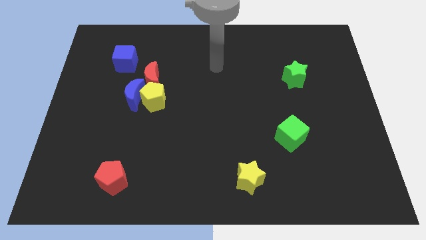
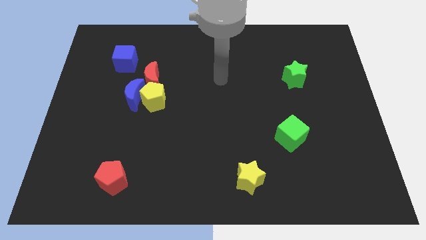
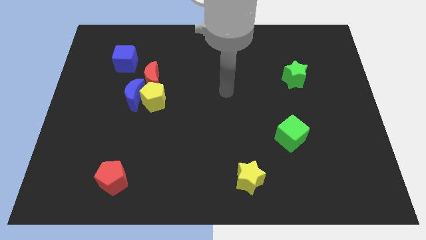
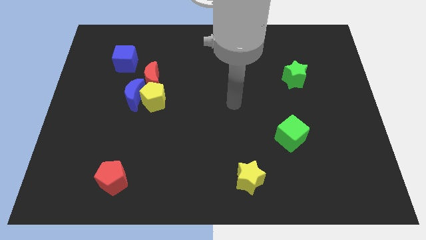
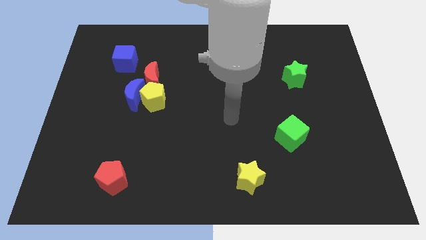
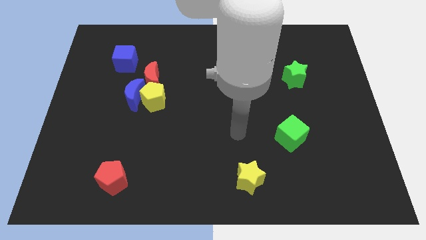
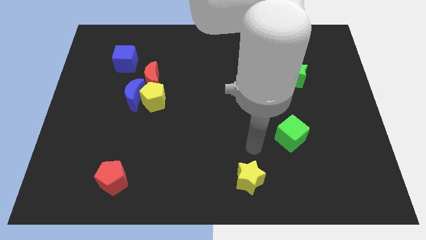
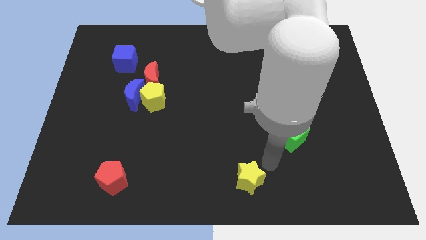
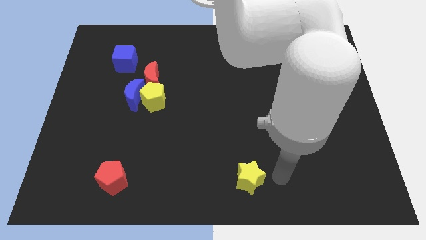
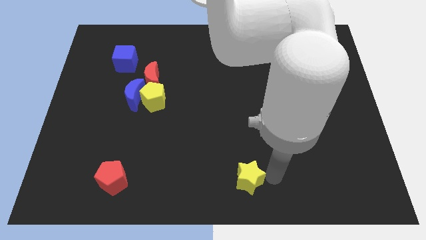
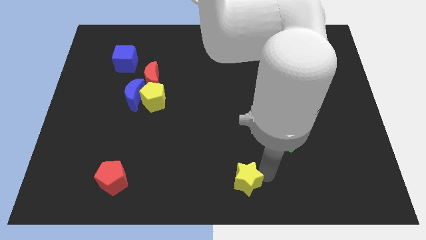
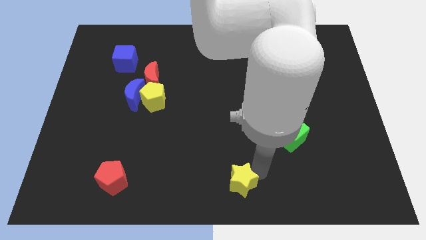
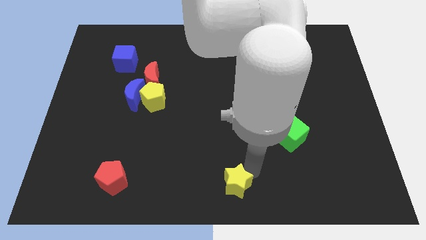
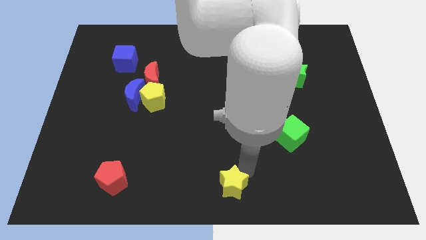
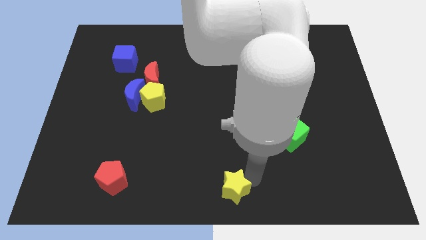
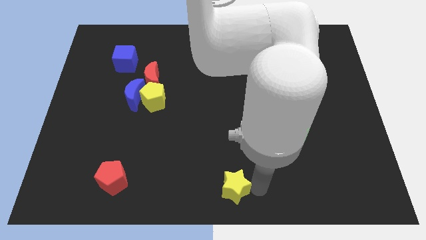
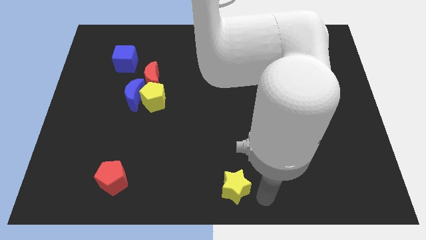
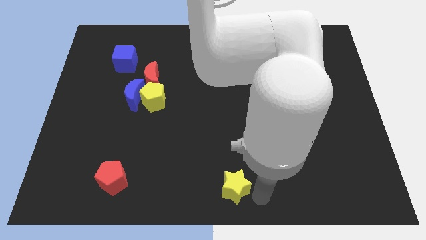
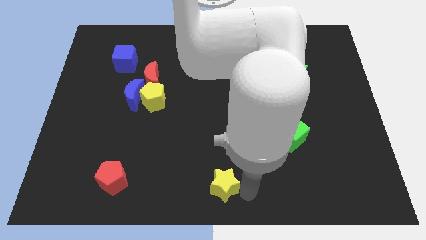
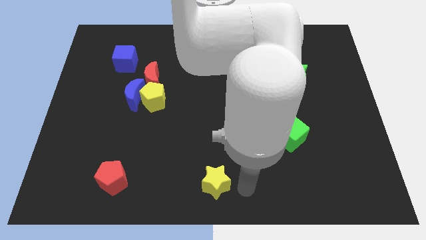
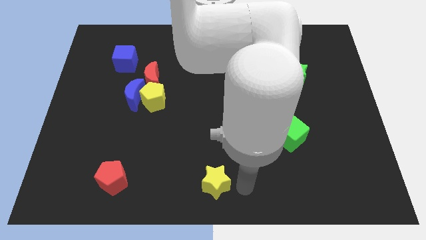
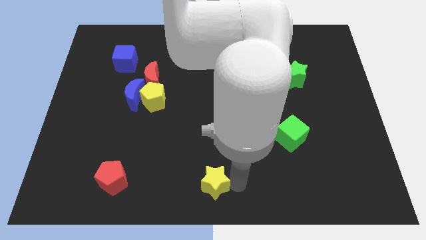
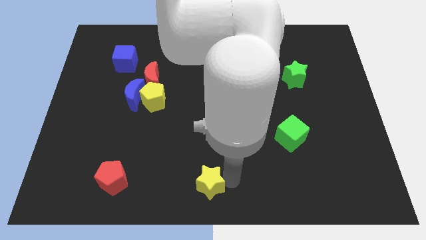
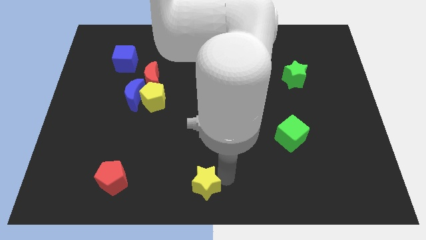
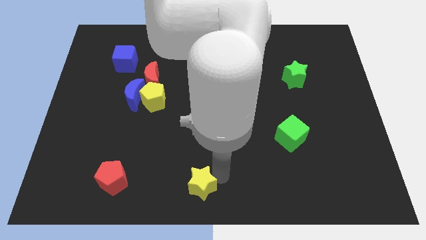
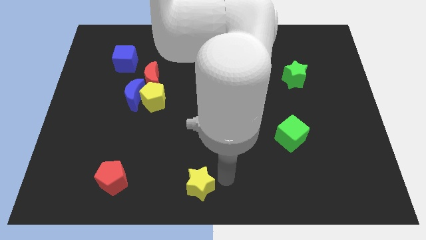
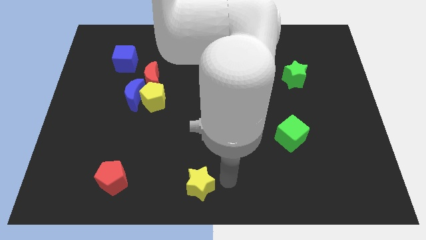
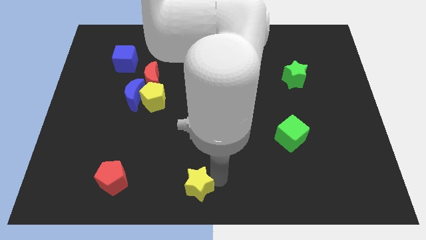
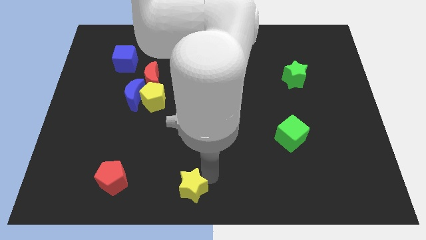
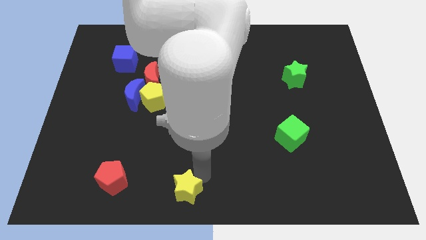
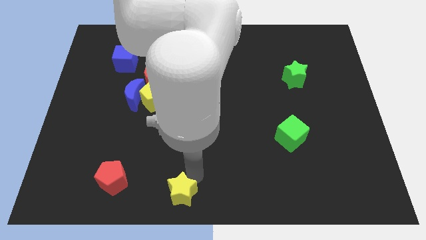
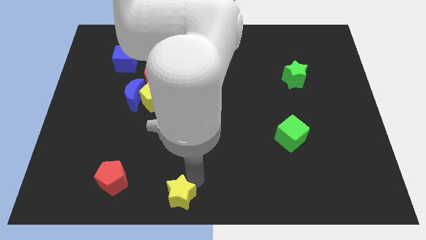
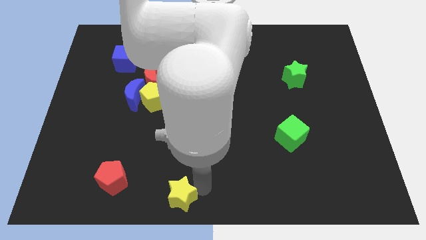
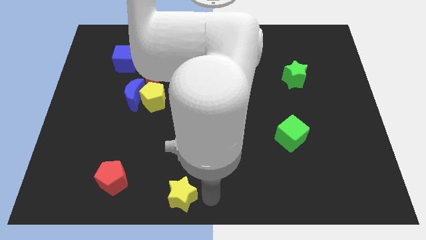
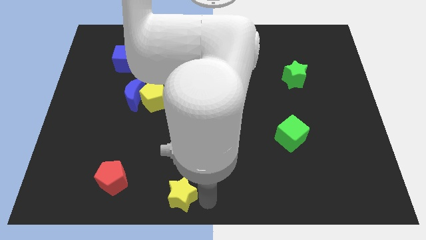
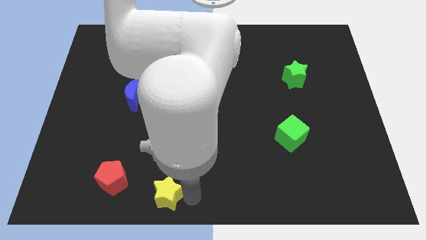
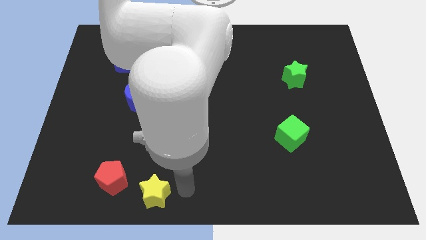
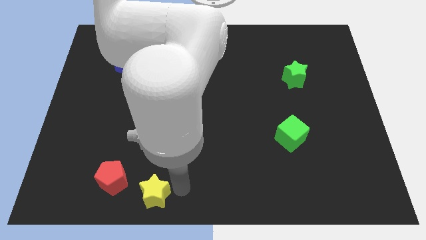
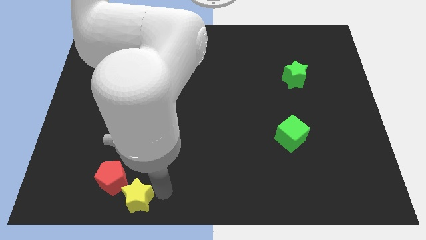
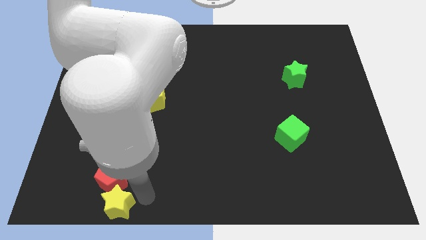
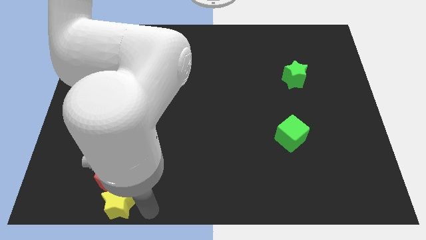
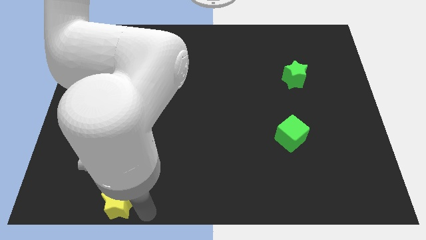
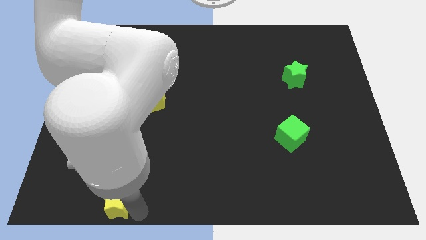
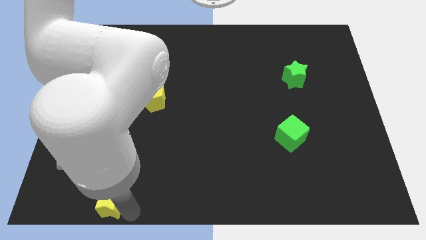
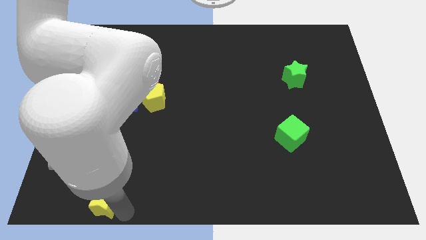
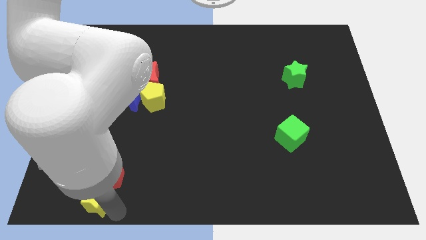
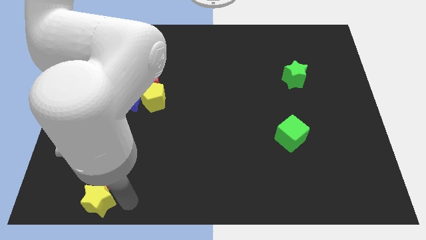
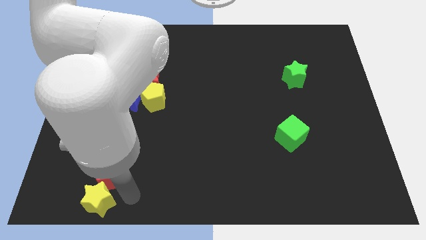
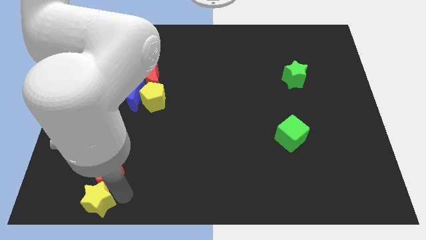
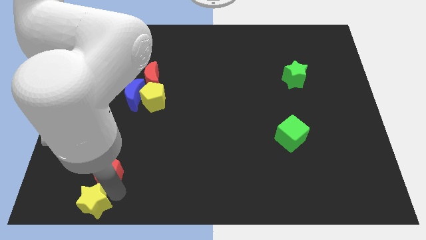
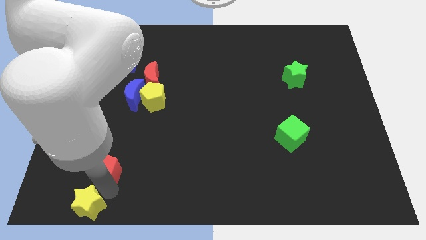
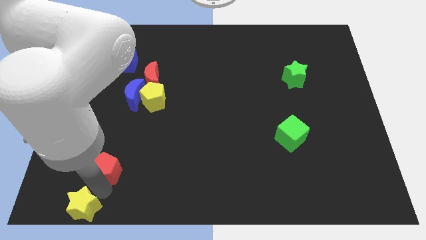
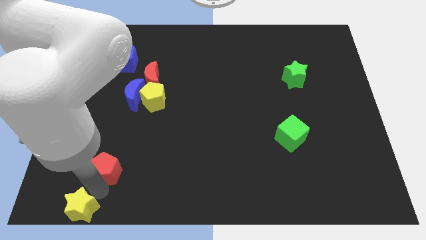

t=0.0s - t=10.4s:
slide the yellow star to the lower left corner

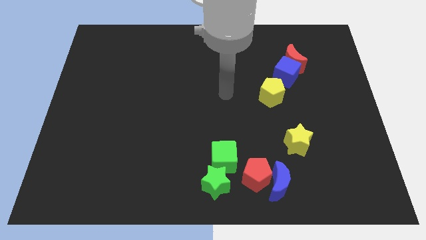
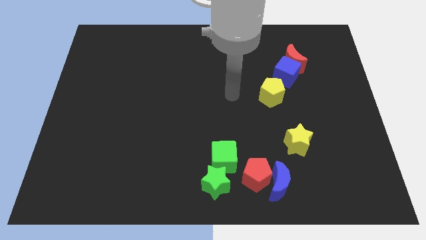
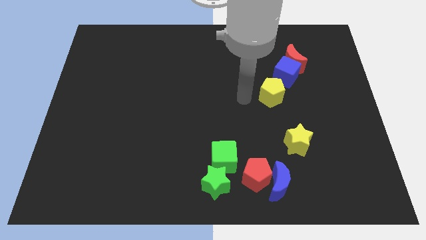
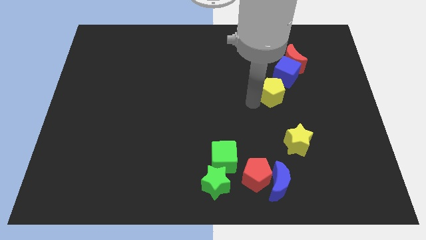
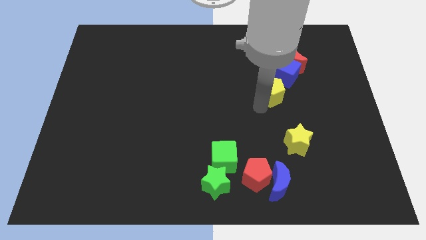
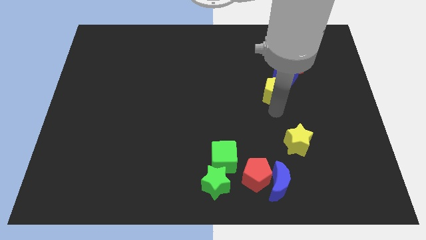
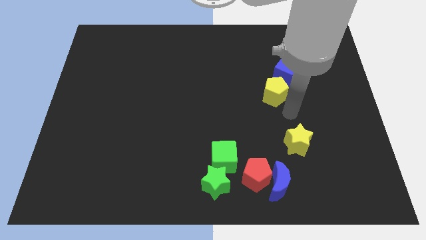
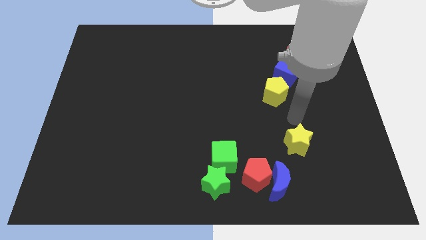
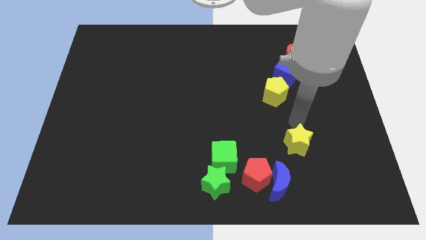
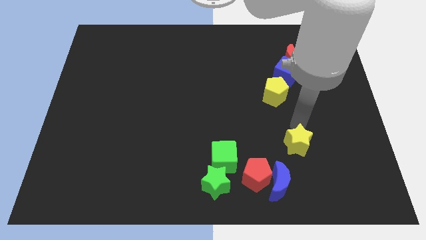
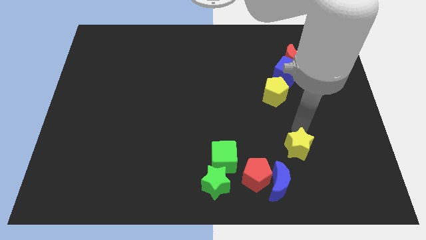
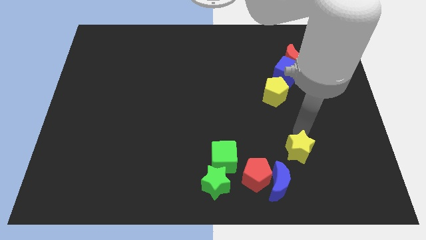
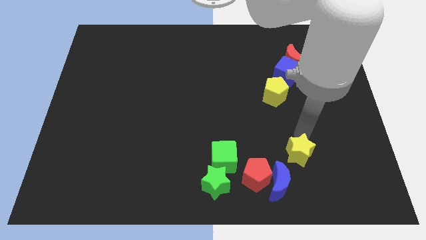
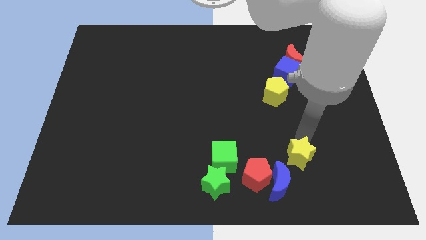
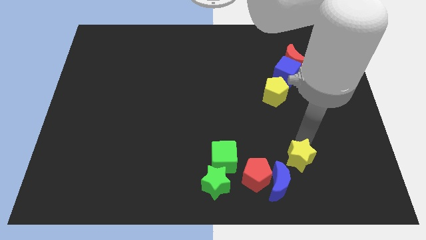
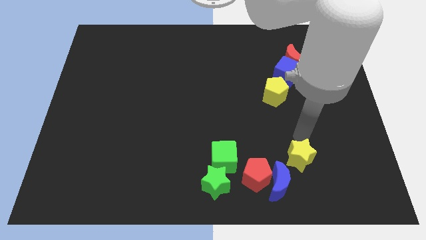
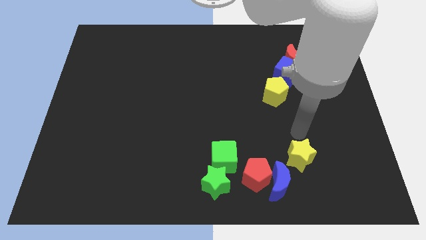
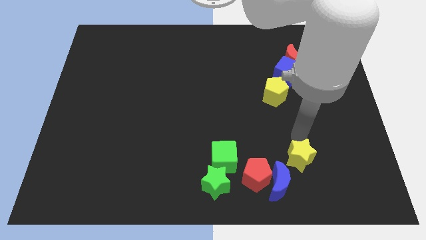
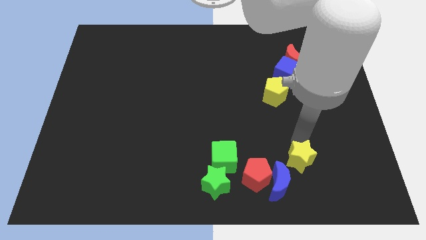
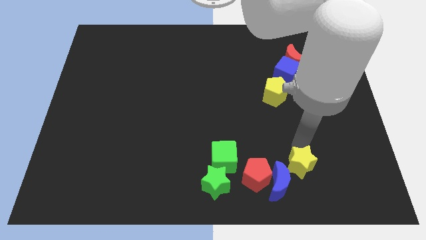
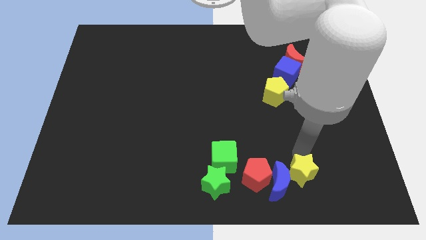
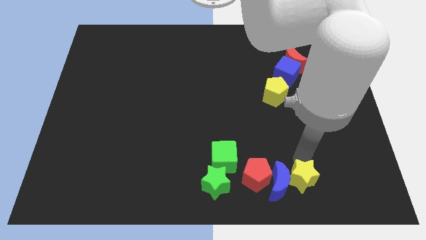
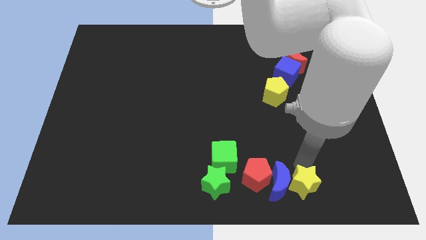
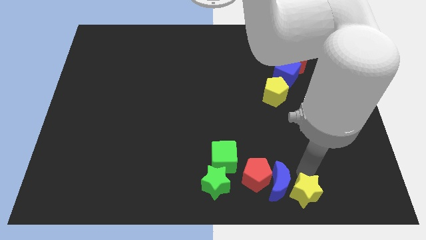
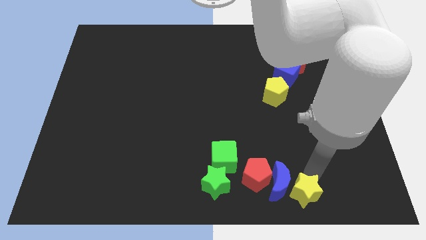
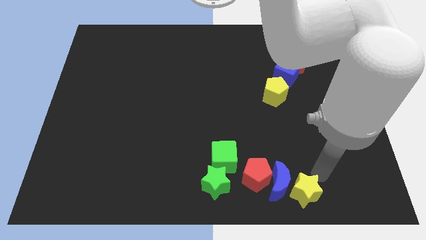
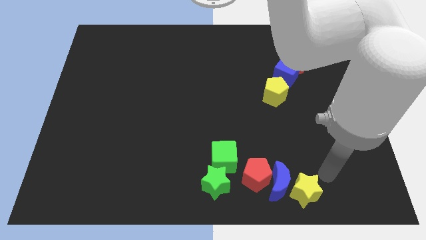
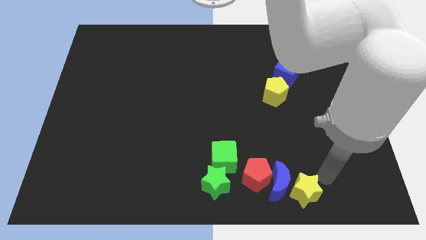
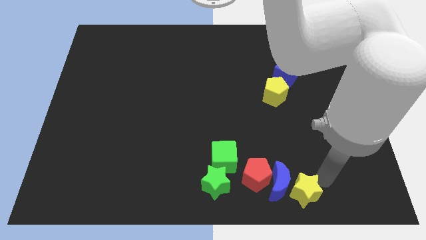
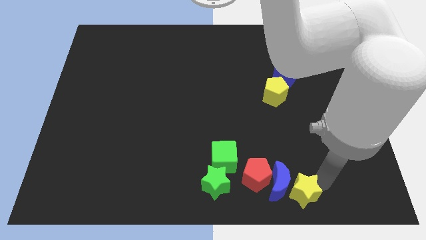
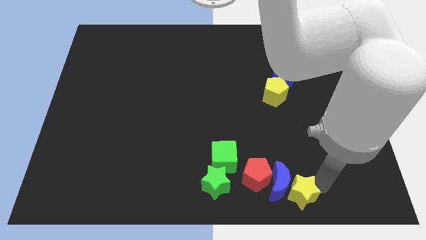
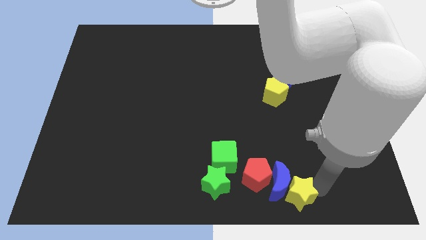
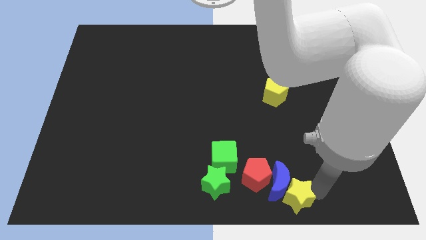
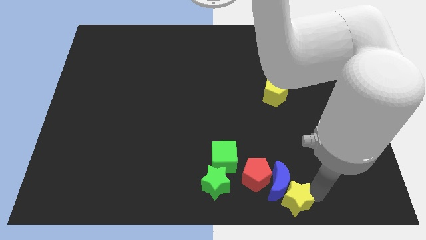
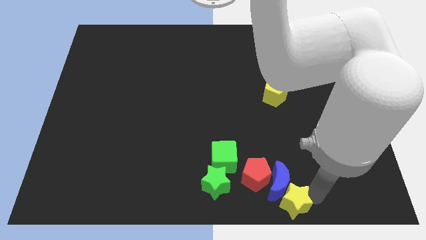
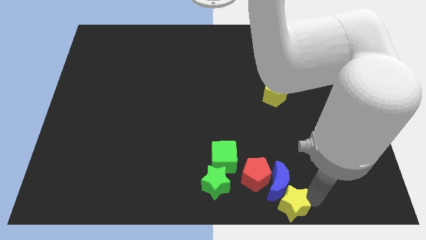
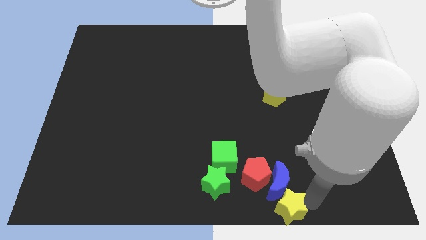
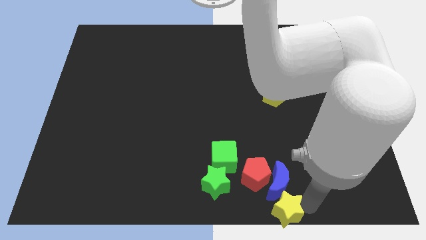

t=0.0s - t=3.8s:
put the yellow star to the bottom side
